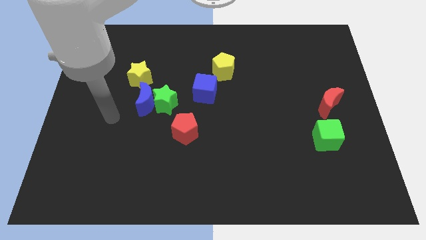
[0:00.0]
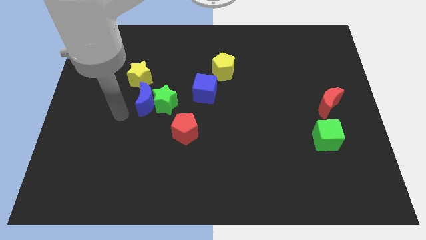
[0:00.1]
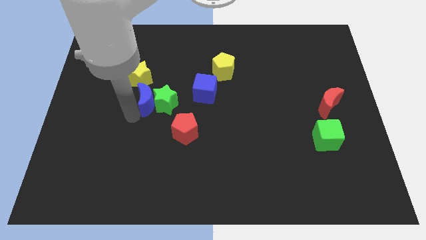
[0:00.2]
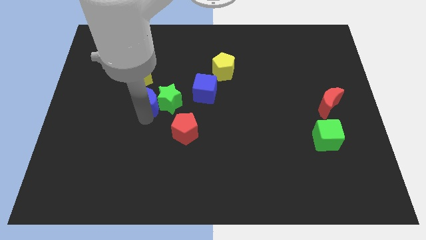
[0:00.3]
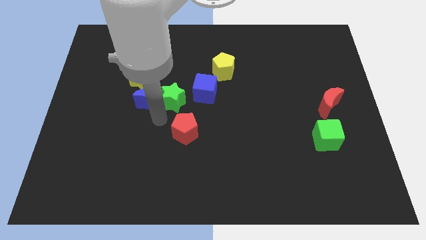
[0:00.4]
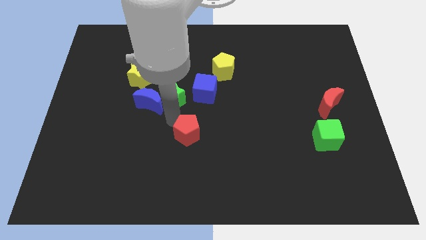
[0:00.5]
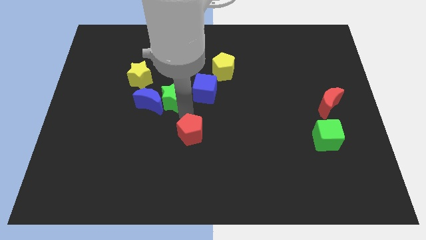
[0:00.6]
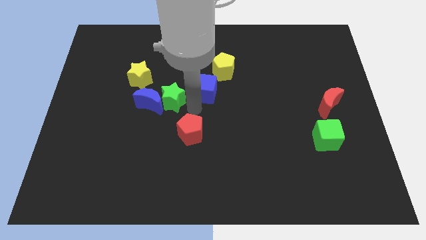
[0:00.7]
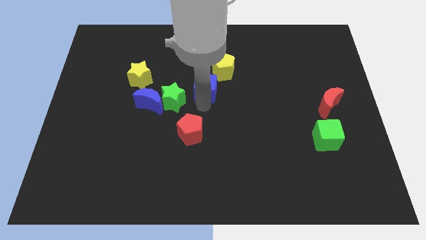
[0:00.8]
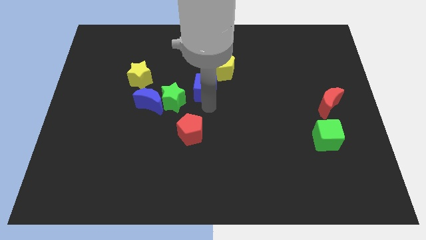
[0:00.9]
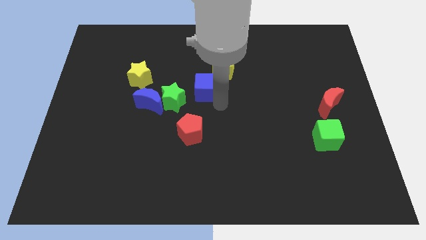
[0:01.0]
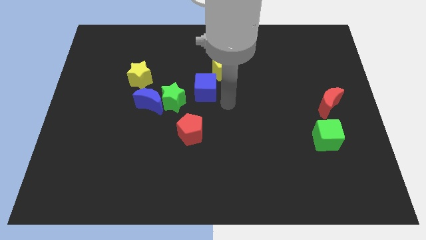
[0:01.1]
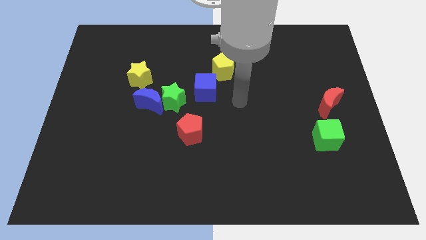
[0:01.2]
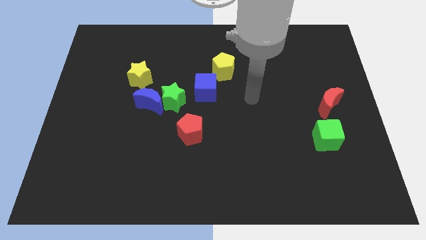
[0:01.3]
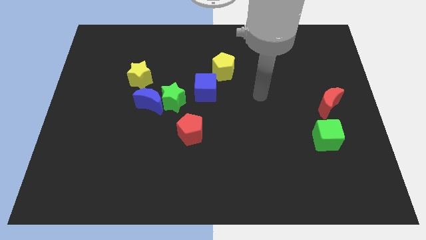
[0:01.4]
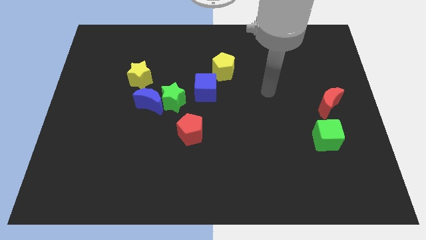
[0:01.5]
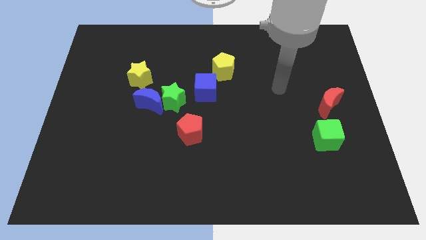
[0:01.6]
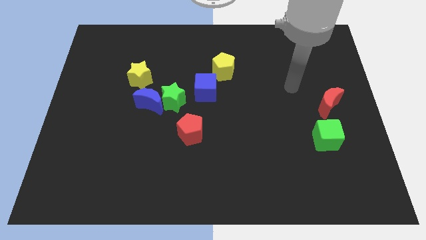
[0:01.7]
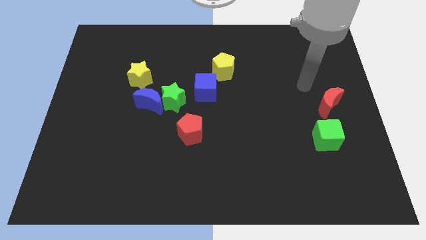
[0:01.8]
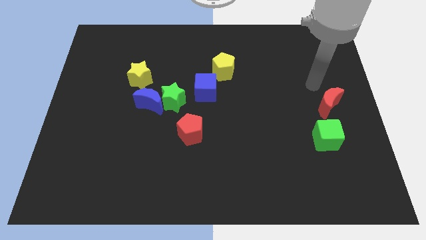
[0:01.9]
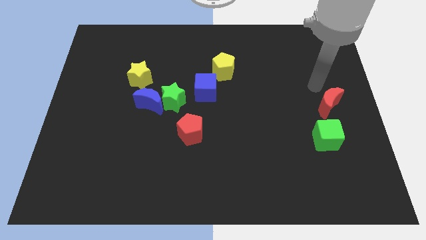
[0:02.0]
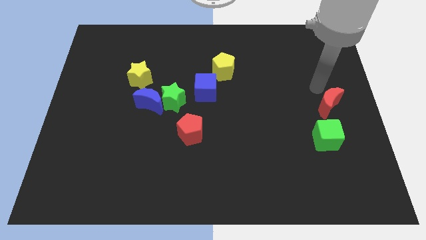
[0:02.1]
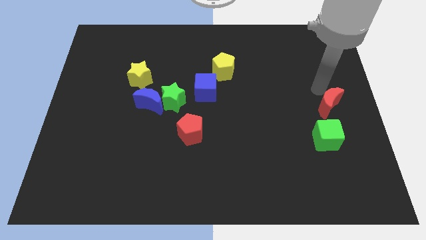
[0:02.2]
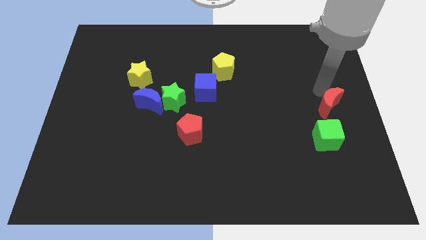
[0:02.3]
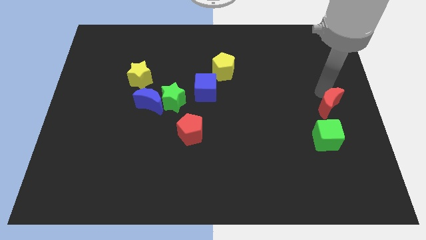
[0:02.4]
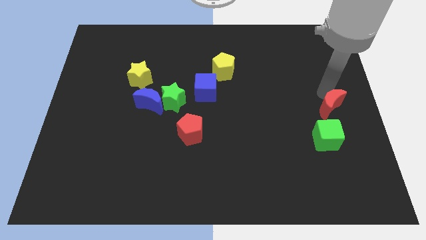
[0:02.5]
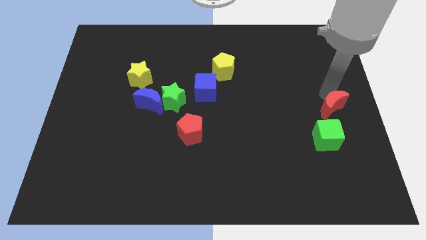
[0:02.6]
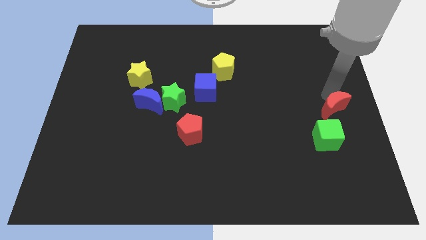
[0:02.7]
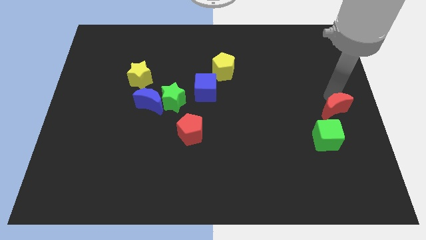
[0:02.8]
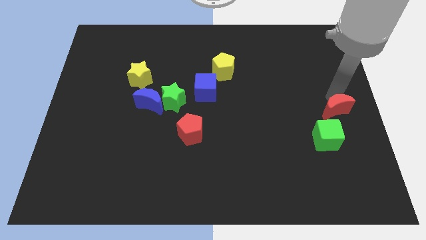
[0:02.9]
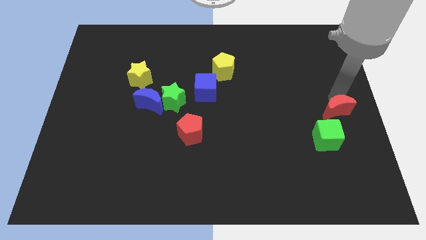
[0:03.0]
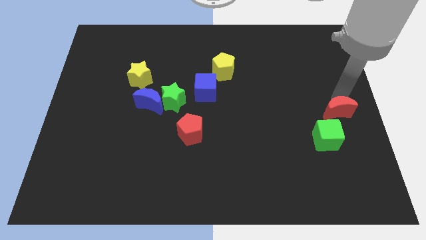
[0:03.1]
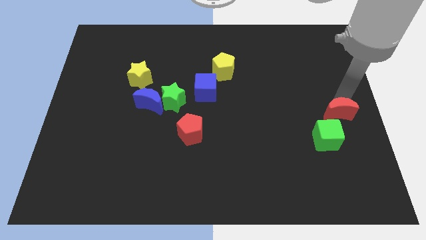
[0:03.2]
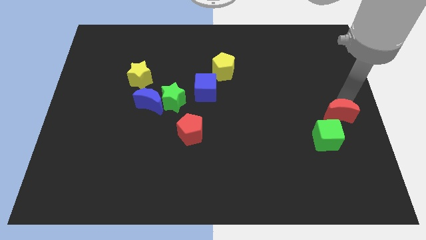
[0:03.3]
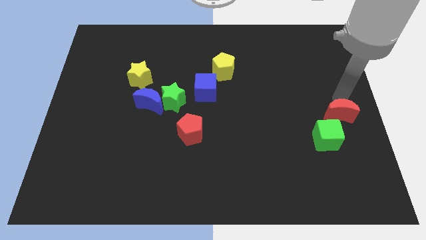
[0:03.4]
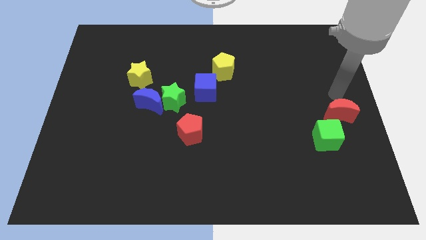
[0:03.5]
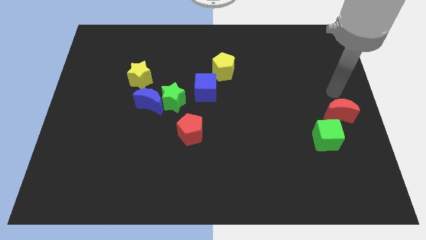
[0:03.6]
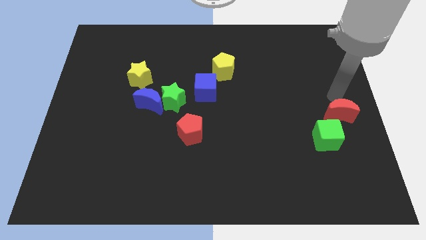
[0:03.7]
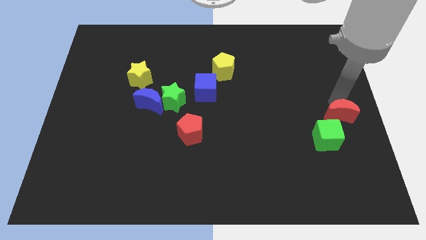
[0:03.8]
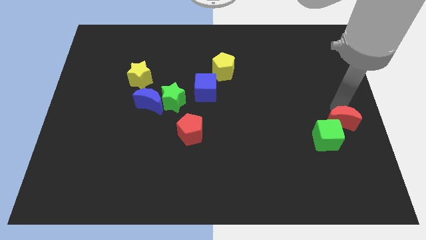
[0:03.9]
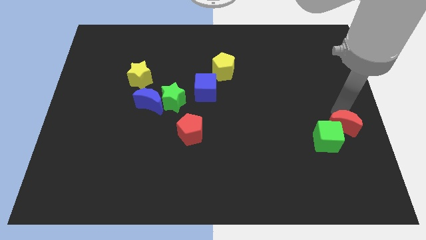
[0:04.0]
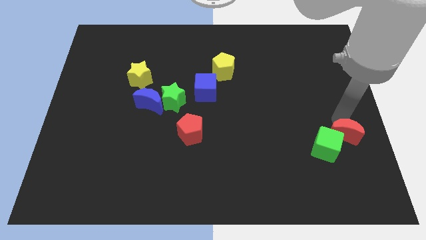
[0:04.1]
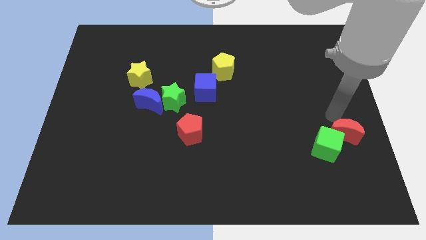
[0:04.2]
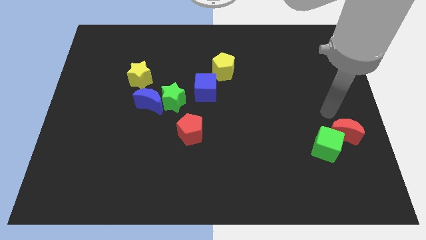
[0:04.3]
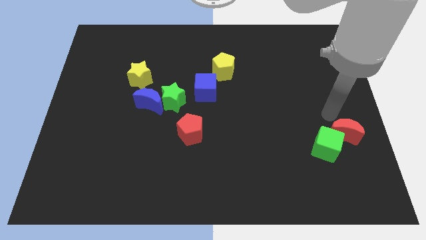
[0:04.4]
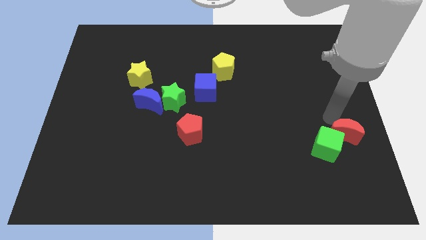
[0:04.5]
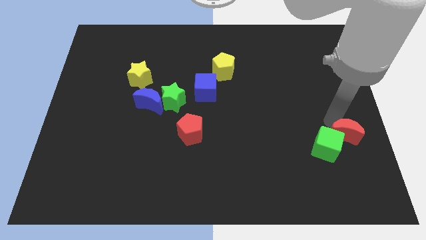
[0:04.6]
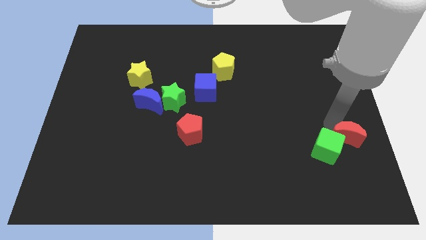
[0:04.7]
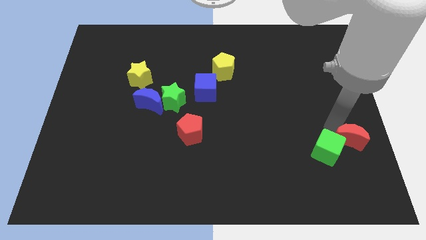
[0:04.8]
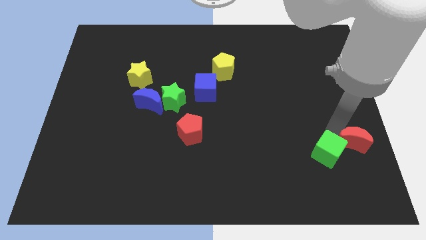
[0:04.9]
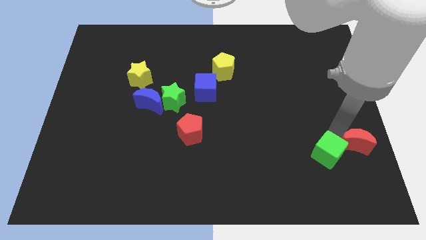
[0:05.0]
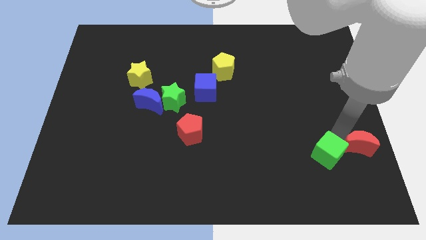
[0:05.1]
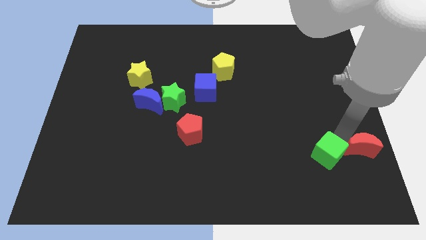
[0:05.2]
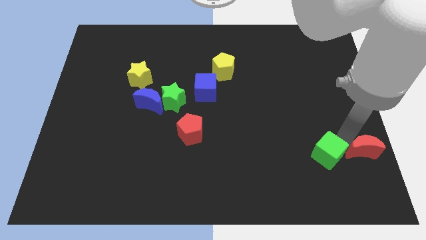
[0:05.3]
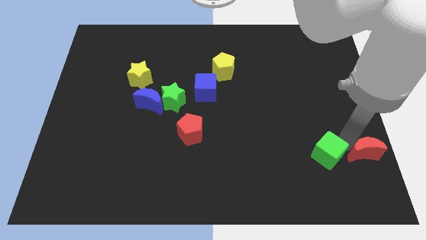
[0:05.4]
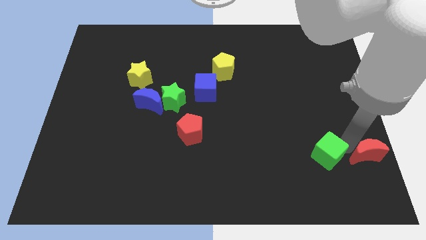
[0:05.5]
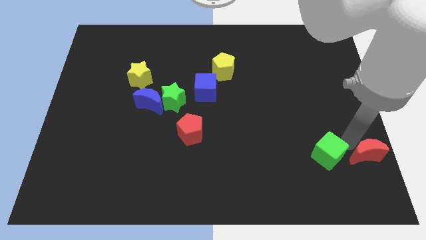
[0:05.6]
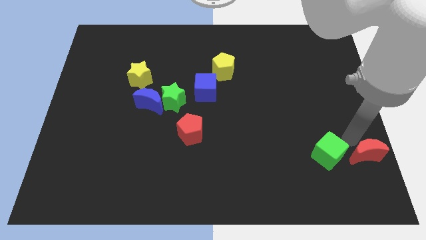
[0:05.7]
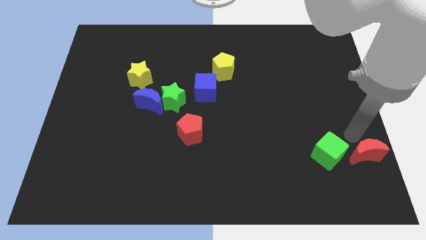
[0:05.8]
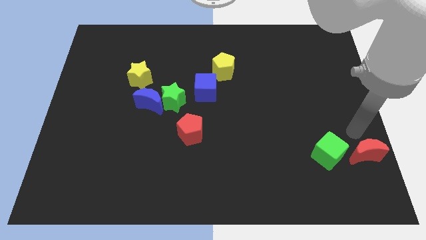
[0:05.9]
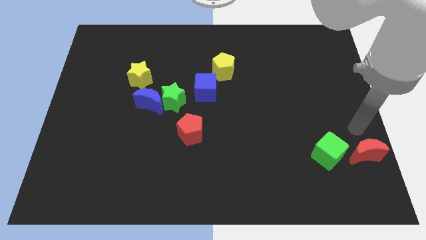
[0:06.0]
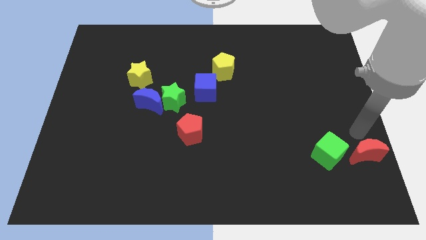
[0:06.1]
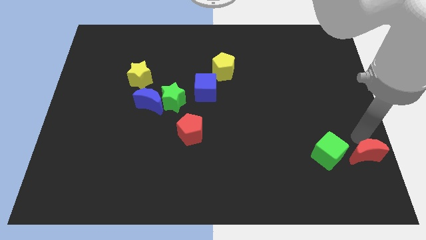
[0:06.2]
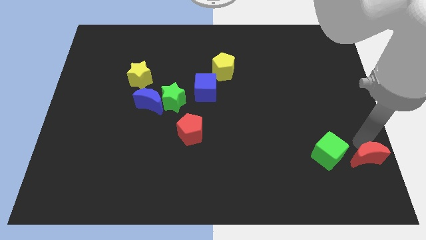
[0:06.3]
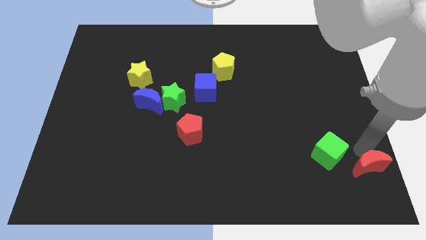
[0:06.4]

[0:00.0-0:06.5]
push the red moon to the bottom right corner

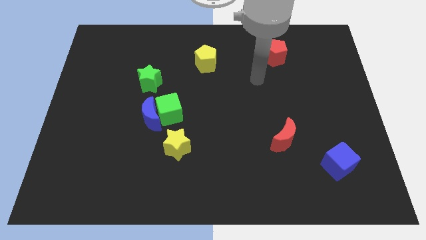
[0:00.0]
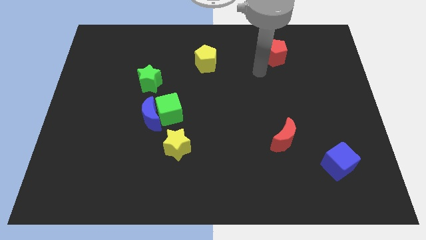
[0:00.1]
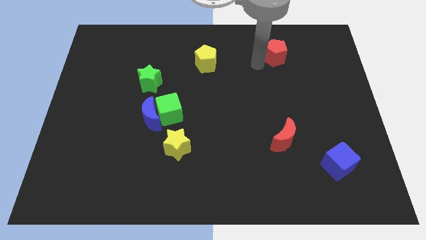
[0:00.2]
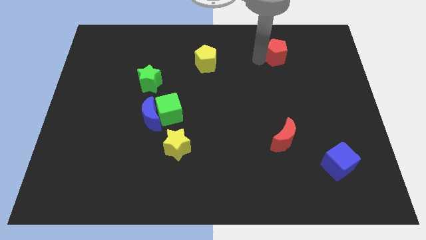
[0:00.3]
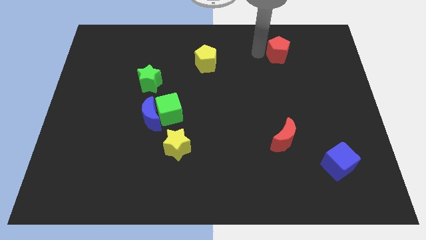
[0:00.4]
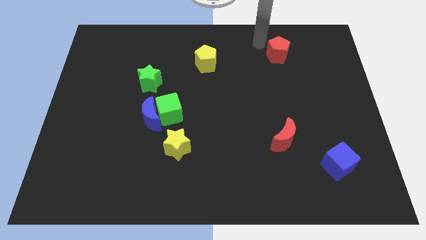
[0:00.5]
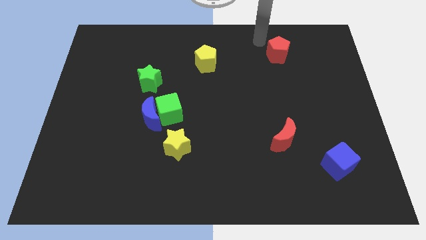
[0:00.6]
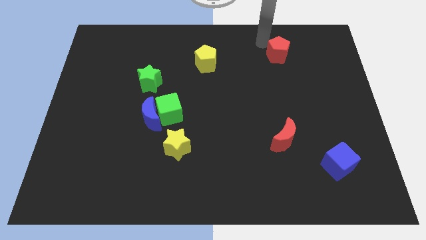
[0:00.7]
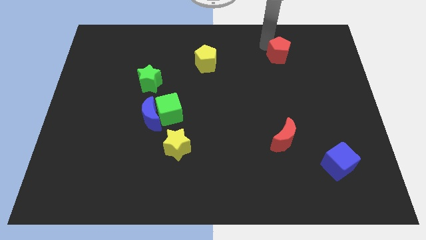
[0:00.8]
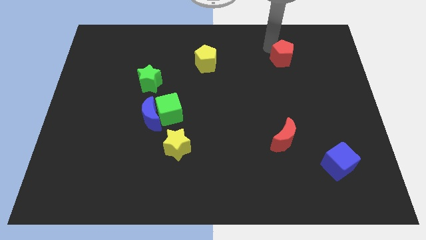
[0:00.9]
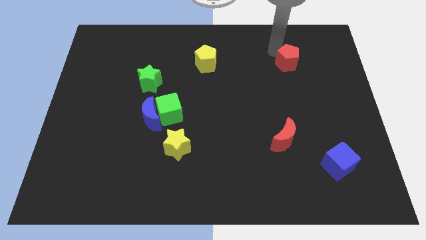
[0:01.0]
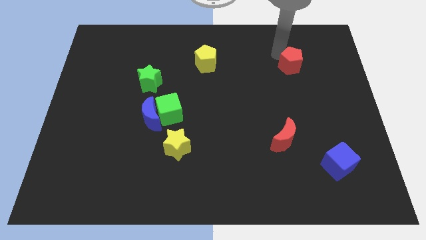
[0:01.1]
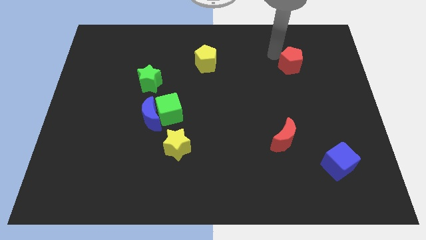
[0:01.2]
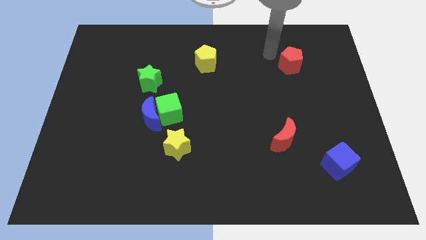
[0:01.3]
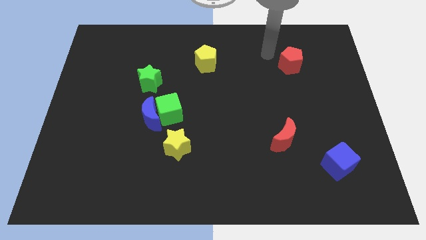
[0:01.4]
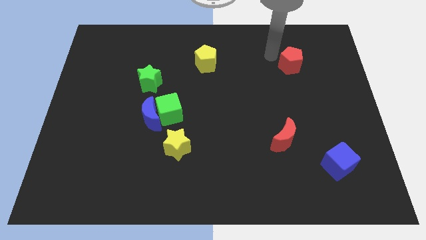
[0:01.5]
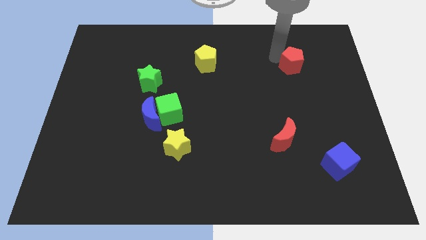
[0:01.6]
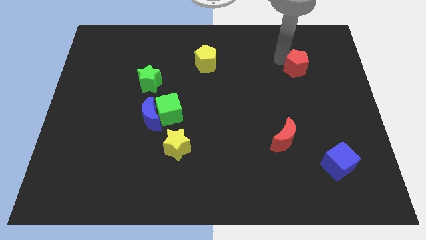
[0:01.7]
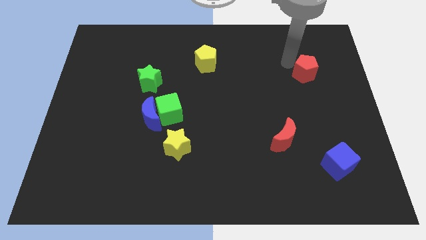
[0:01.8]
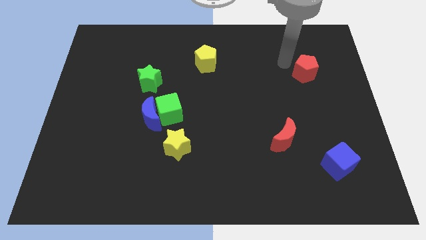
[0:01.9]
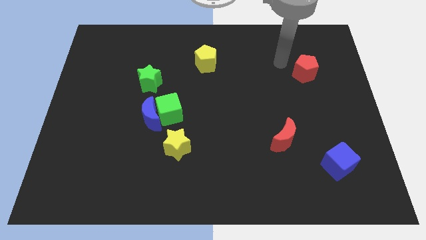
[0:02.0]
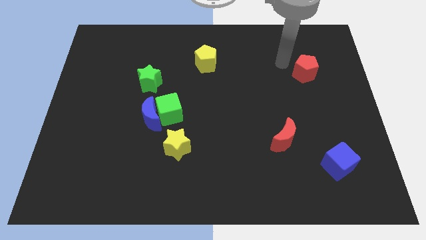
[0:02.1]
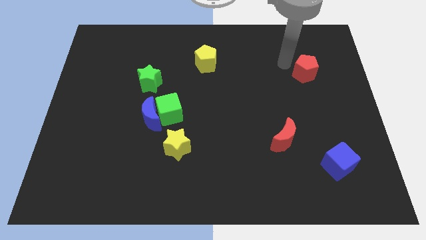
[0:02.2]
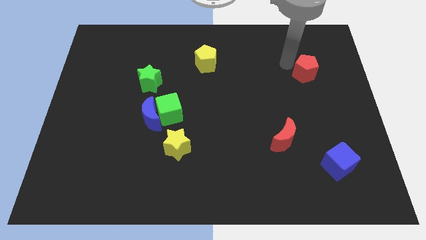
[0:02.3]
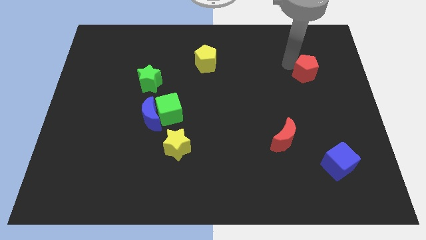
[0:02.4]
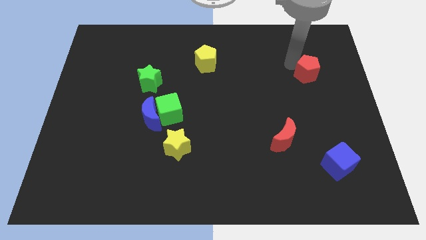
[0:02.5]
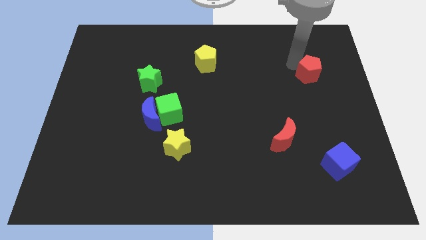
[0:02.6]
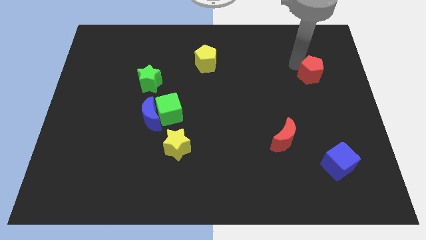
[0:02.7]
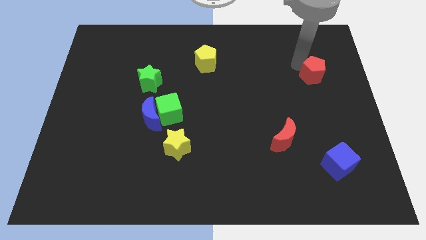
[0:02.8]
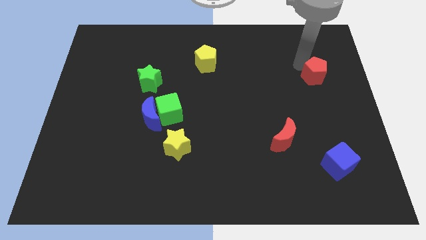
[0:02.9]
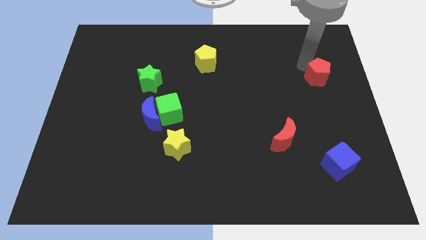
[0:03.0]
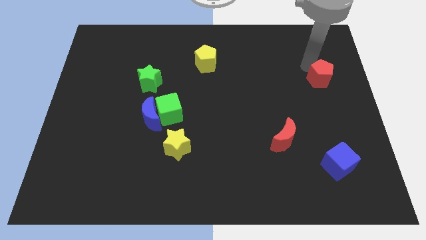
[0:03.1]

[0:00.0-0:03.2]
move the red pentagon to the center right
